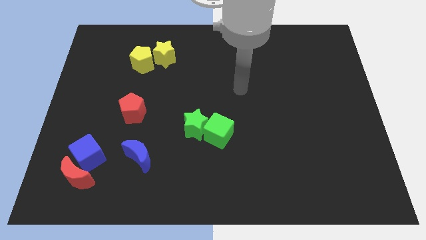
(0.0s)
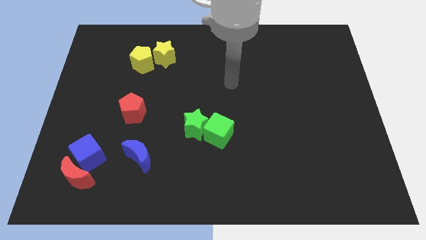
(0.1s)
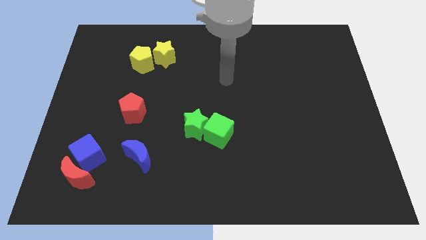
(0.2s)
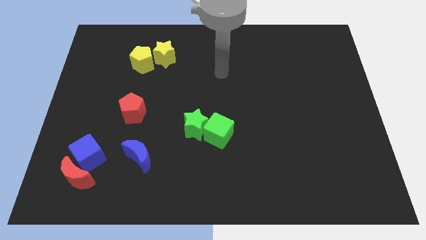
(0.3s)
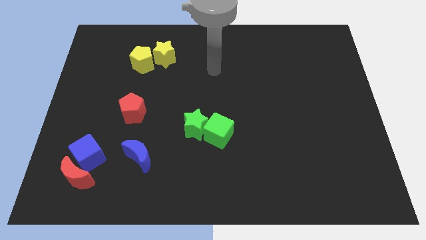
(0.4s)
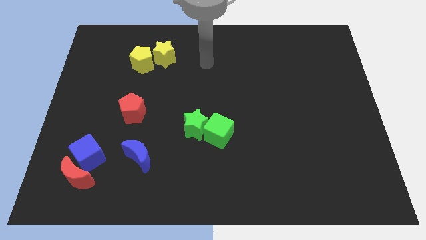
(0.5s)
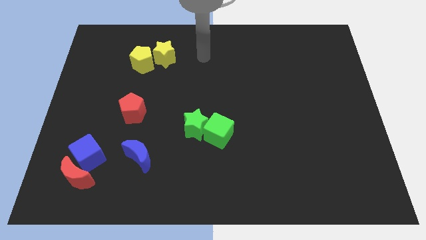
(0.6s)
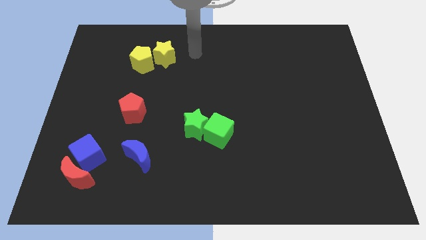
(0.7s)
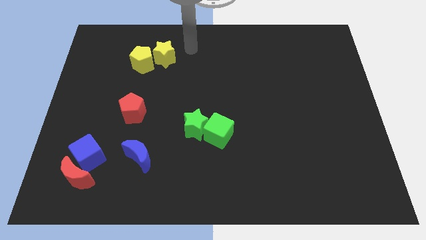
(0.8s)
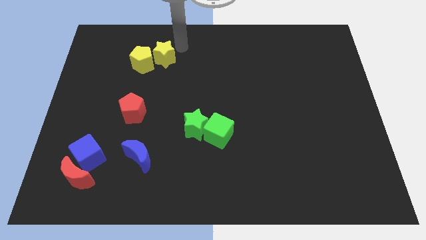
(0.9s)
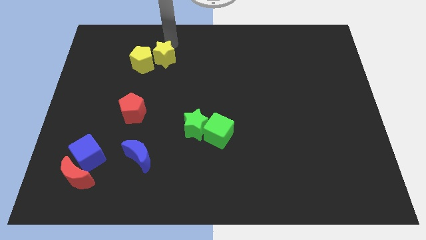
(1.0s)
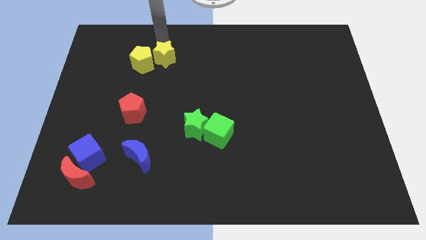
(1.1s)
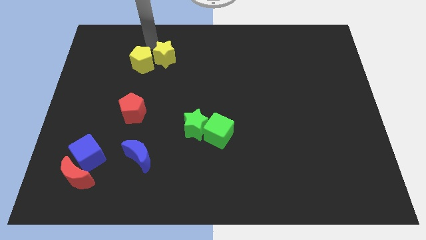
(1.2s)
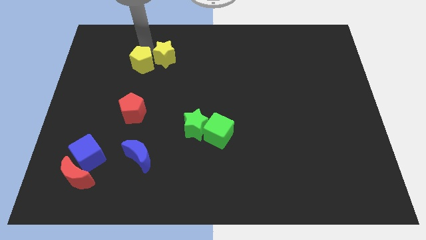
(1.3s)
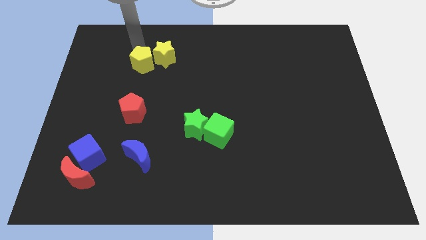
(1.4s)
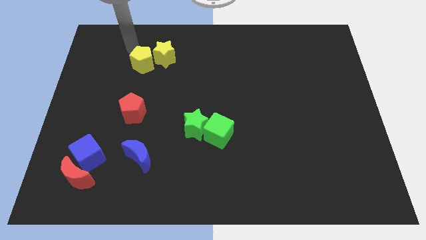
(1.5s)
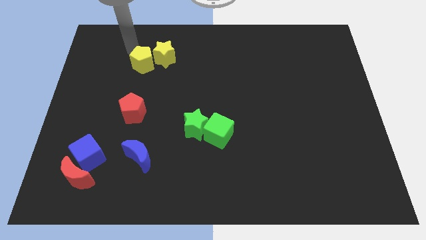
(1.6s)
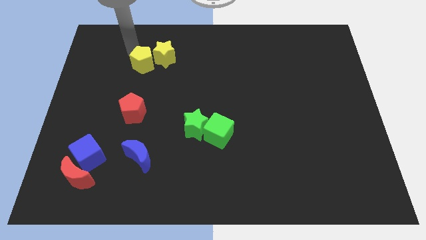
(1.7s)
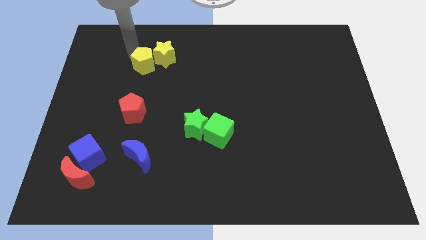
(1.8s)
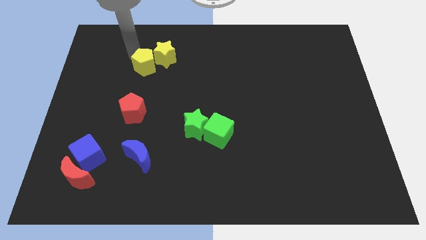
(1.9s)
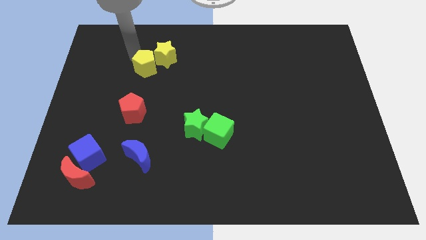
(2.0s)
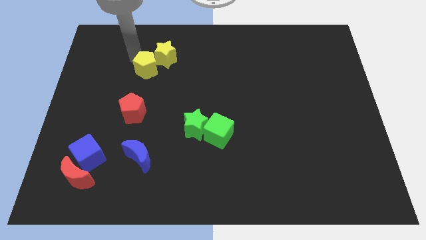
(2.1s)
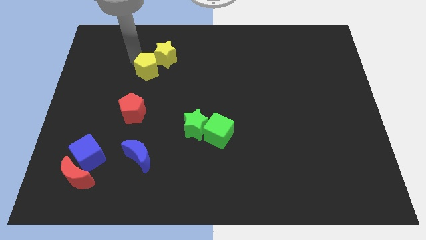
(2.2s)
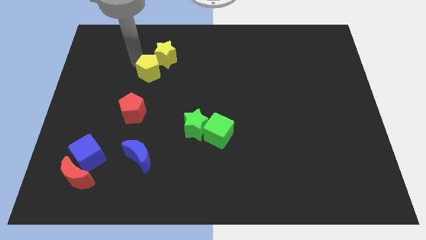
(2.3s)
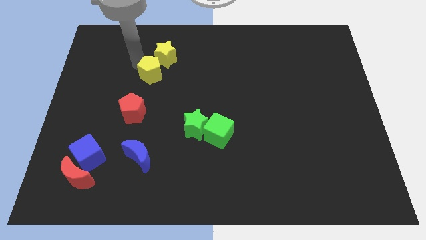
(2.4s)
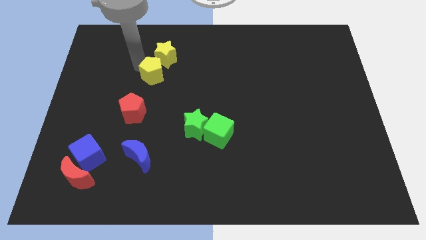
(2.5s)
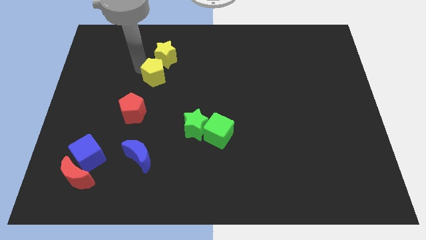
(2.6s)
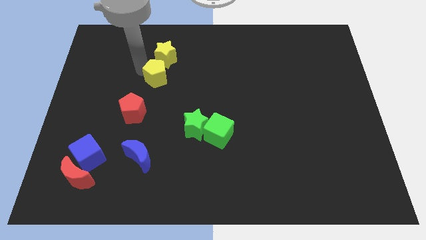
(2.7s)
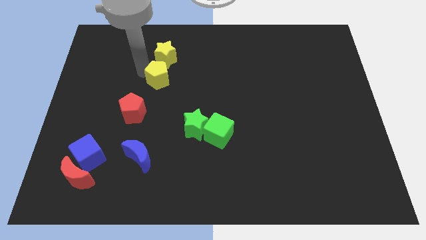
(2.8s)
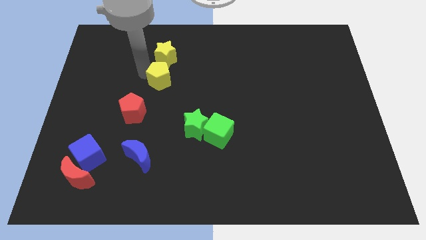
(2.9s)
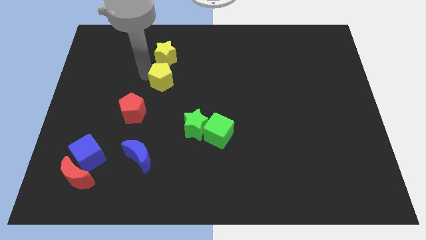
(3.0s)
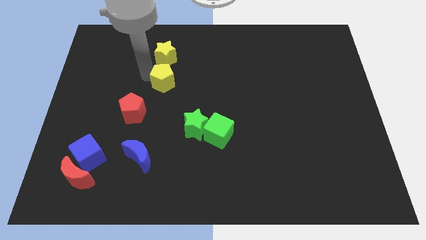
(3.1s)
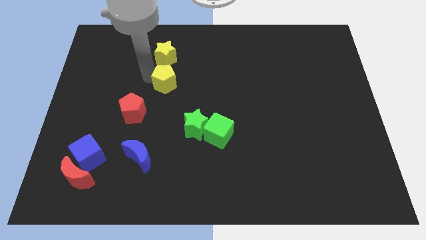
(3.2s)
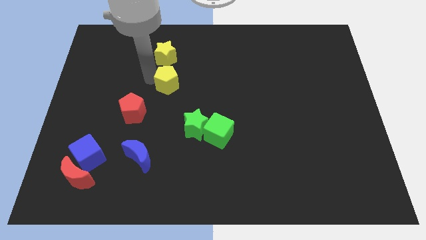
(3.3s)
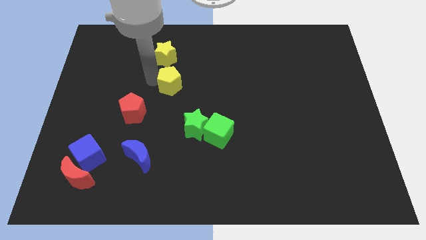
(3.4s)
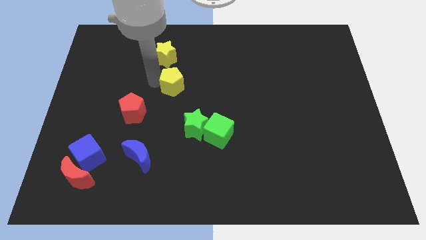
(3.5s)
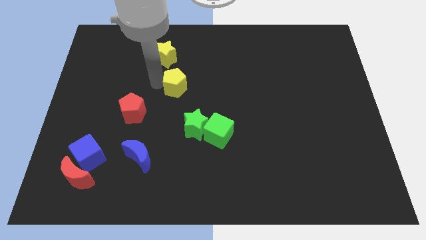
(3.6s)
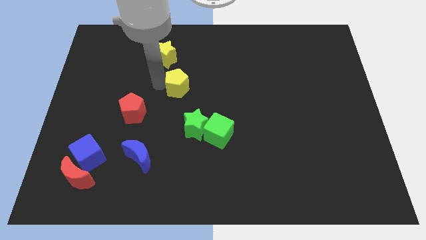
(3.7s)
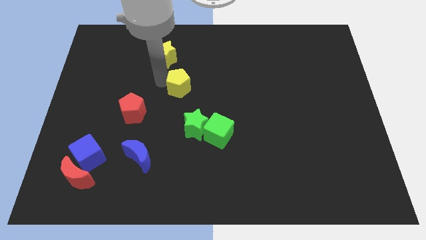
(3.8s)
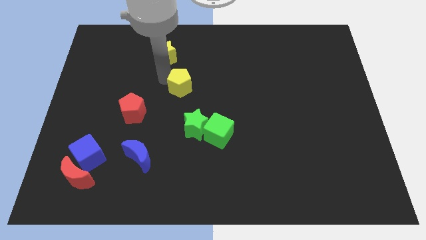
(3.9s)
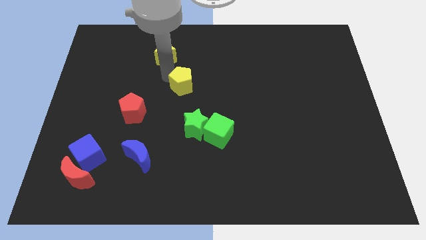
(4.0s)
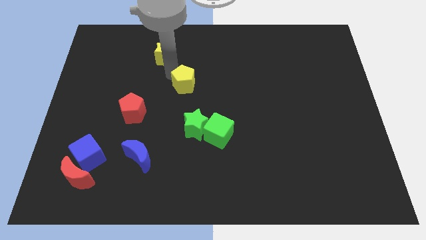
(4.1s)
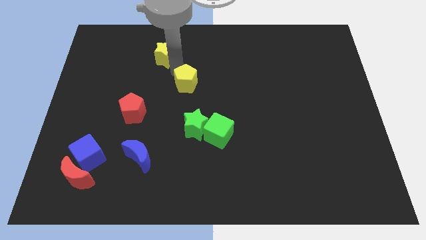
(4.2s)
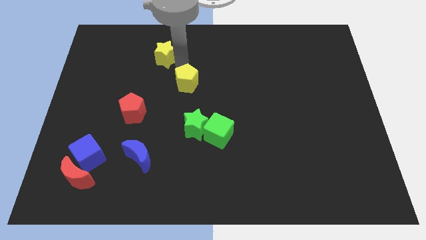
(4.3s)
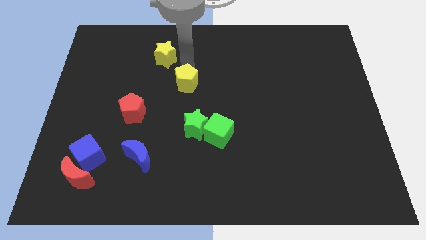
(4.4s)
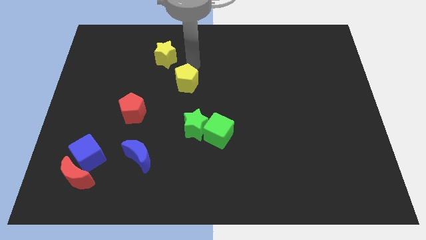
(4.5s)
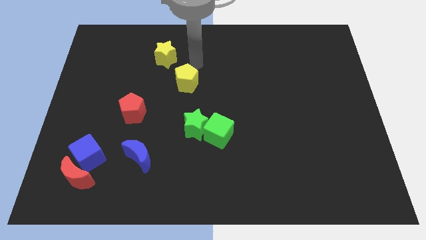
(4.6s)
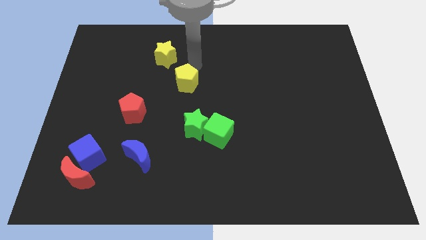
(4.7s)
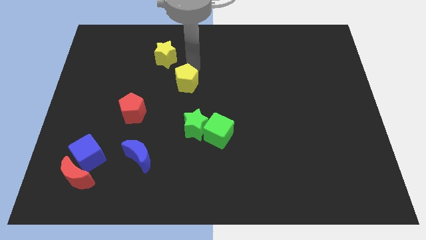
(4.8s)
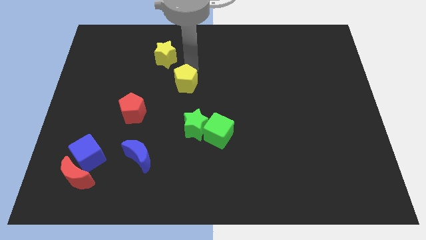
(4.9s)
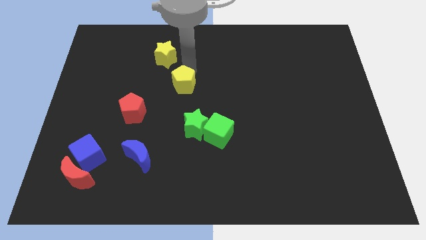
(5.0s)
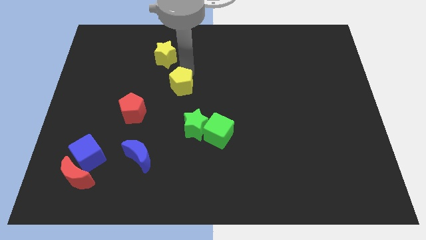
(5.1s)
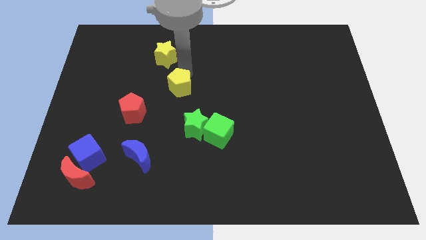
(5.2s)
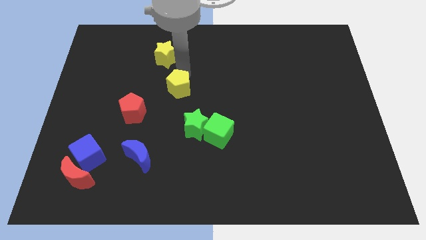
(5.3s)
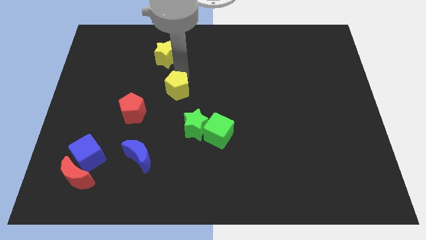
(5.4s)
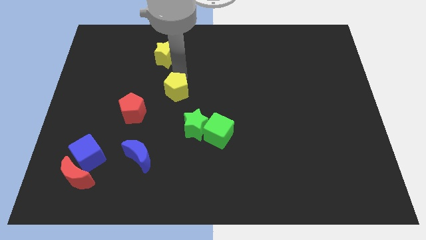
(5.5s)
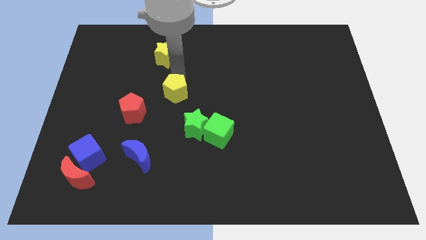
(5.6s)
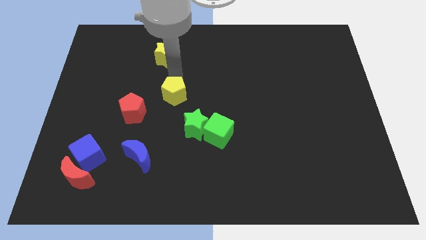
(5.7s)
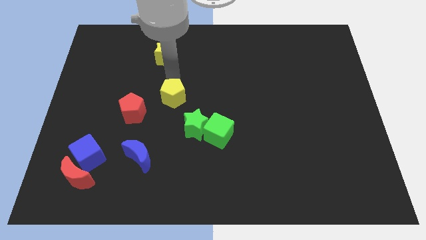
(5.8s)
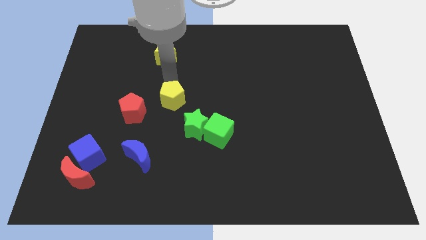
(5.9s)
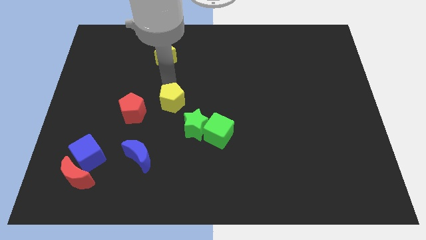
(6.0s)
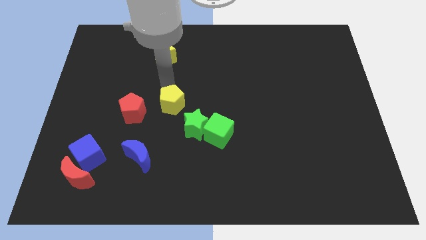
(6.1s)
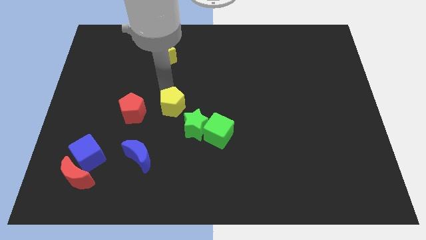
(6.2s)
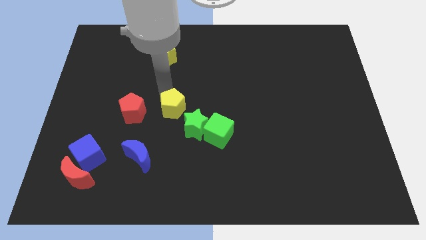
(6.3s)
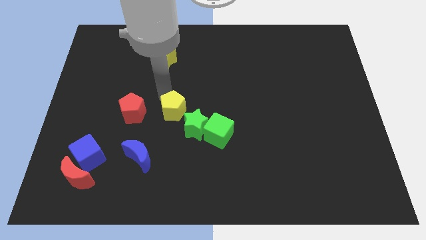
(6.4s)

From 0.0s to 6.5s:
move the yellow pentagon to the top left side of the green cube

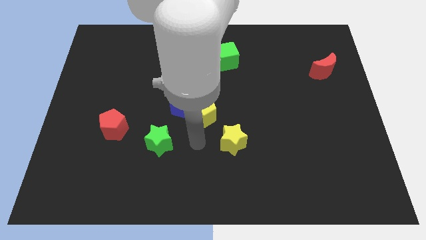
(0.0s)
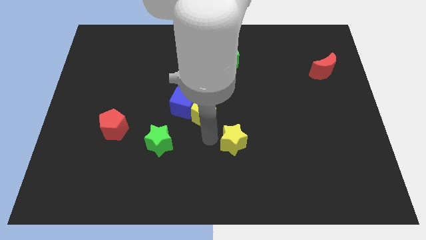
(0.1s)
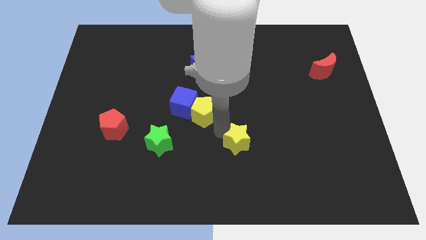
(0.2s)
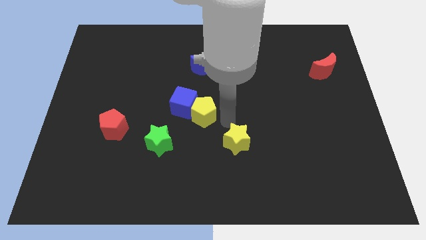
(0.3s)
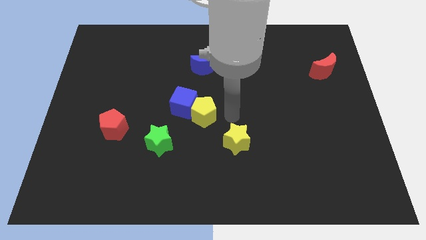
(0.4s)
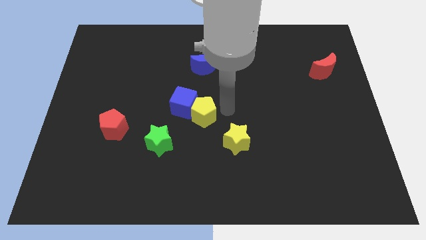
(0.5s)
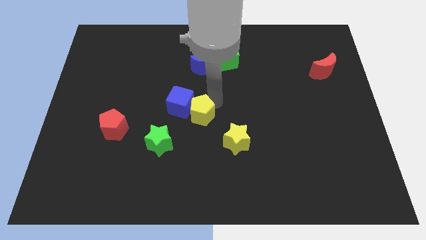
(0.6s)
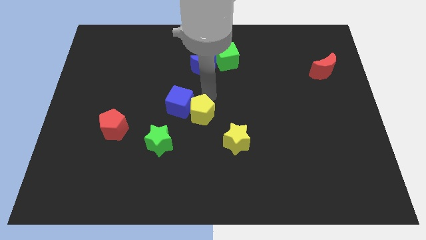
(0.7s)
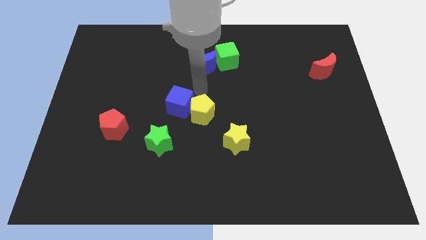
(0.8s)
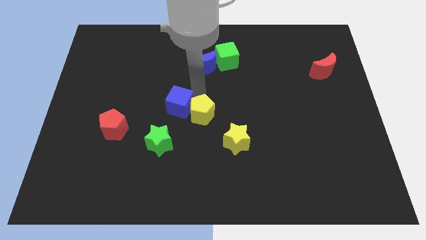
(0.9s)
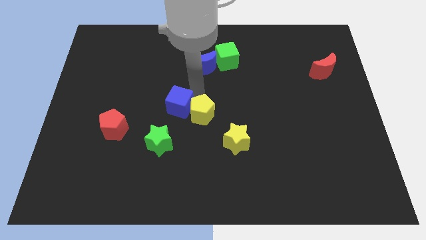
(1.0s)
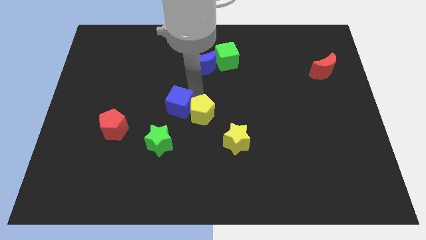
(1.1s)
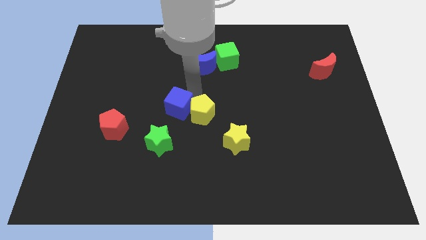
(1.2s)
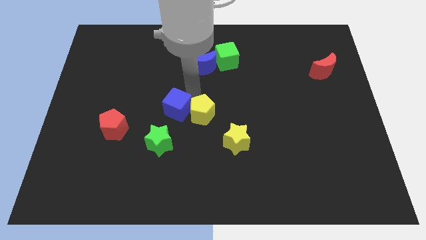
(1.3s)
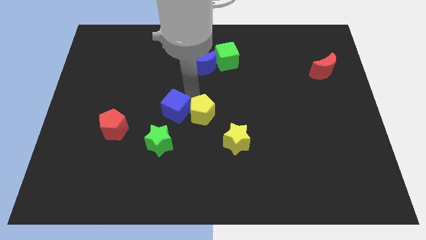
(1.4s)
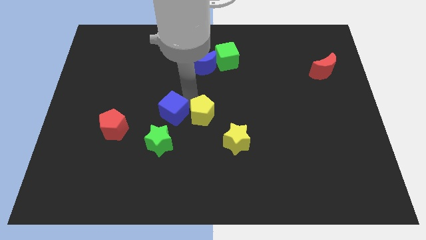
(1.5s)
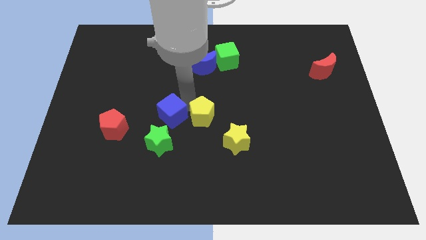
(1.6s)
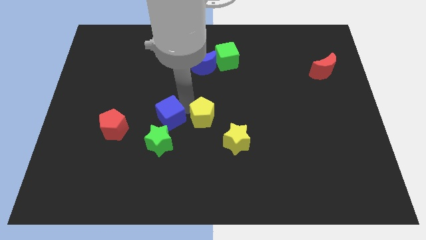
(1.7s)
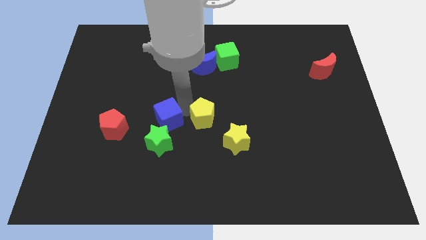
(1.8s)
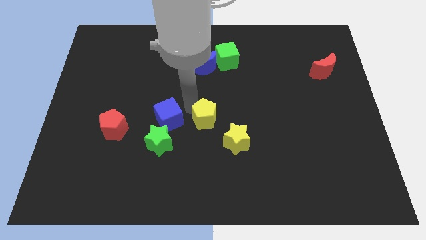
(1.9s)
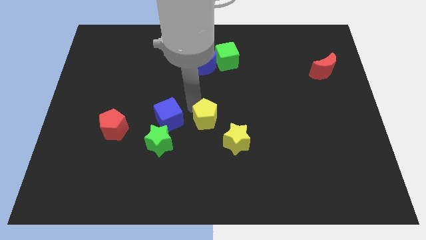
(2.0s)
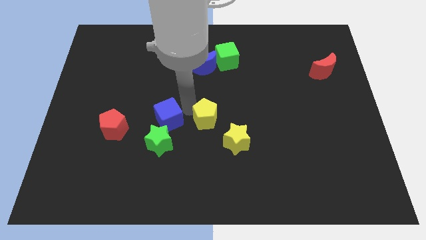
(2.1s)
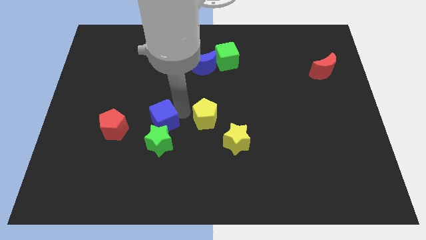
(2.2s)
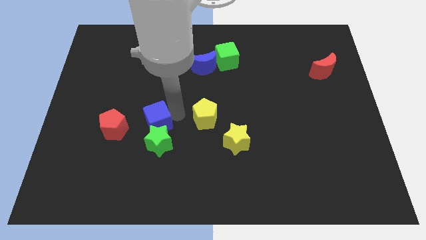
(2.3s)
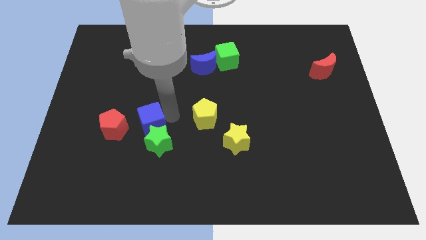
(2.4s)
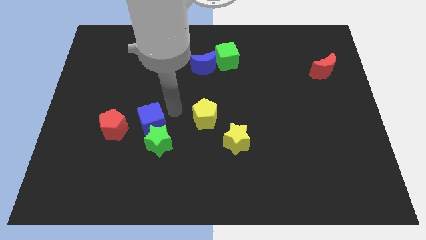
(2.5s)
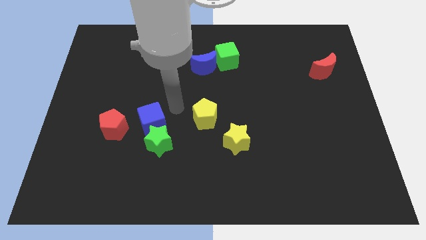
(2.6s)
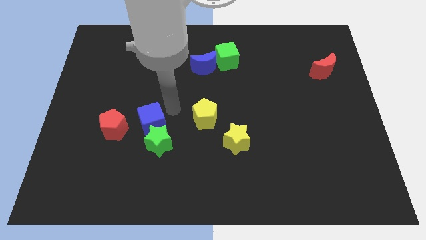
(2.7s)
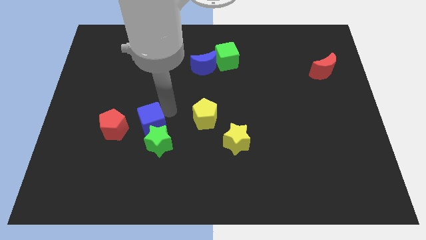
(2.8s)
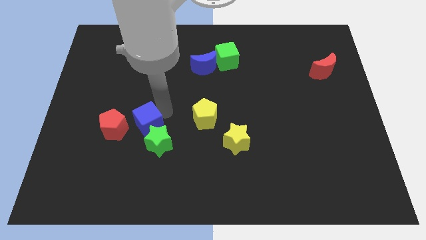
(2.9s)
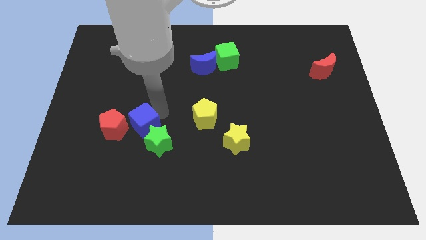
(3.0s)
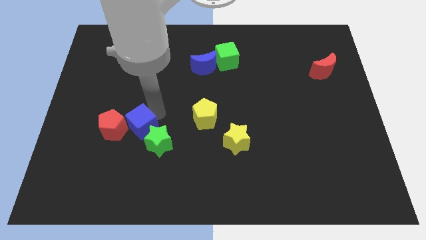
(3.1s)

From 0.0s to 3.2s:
slide the blue cube to the left side of the green star
